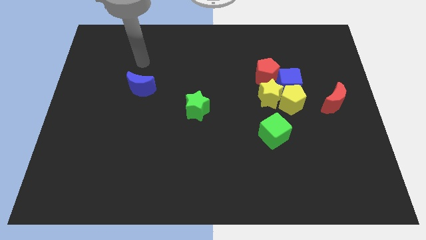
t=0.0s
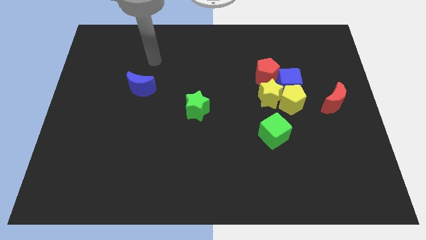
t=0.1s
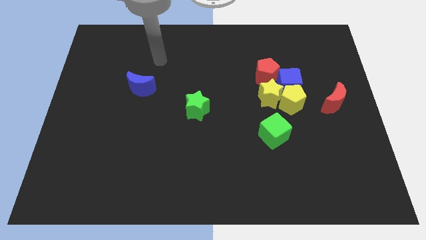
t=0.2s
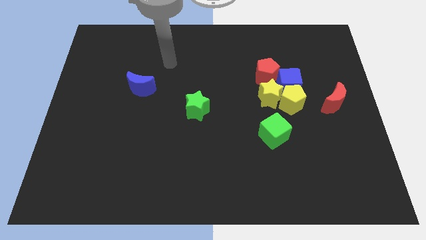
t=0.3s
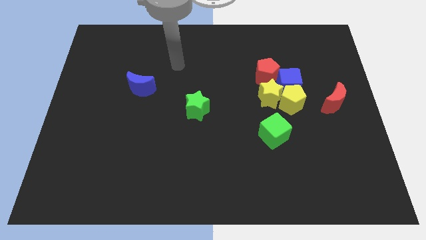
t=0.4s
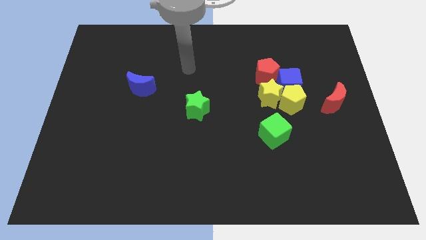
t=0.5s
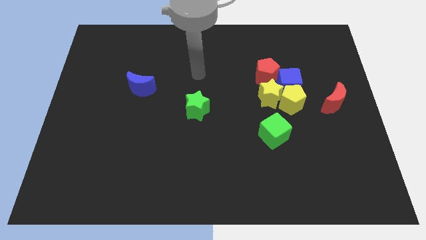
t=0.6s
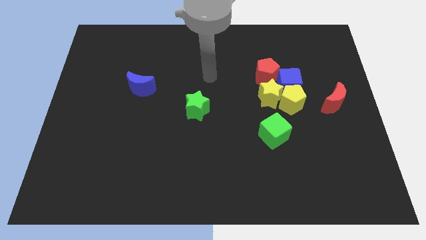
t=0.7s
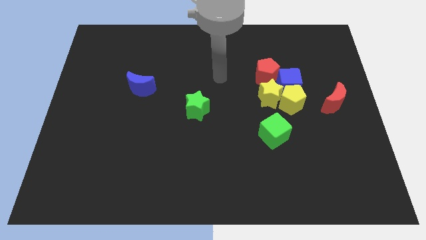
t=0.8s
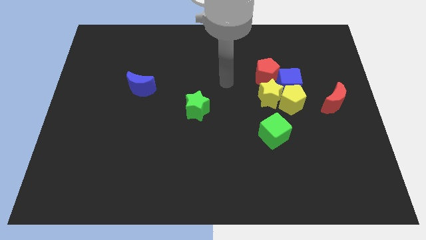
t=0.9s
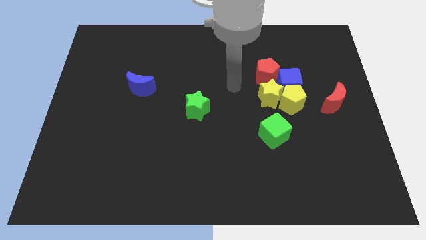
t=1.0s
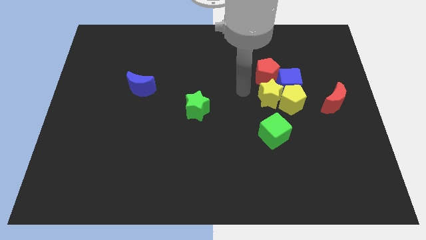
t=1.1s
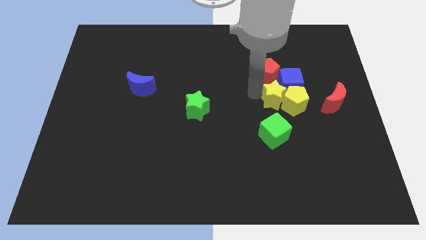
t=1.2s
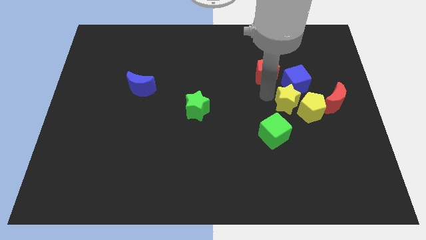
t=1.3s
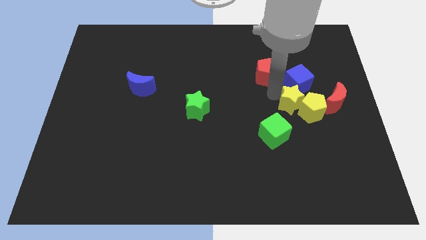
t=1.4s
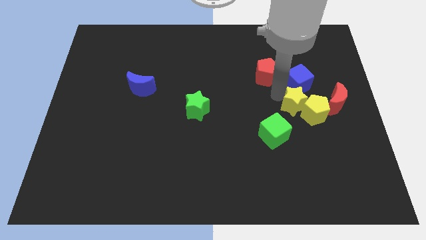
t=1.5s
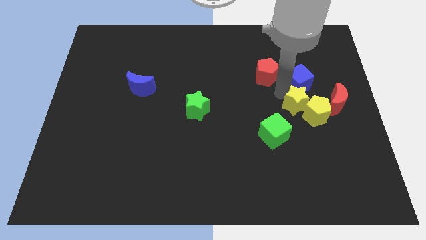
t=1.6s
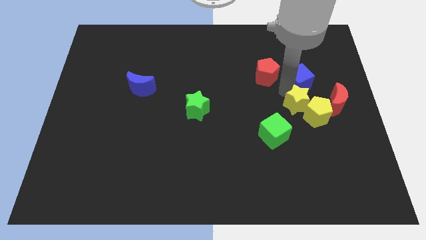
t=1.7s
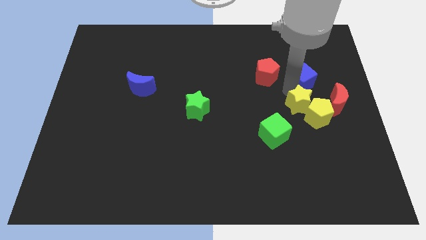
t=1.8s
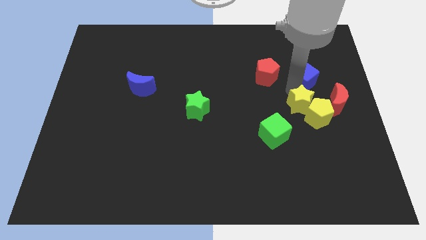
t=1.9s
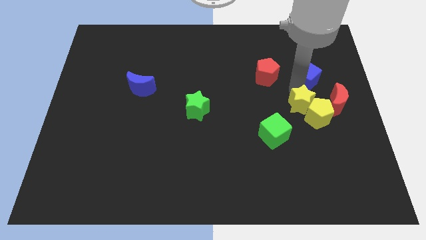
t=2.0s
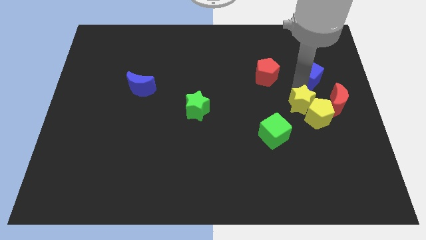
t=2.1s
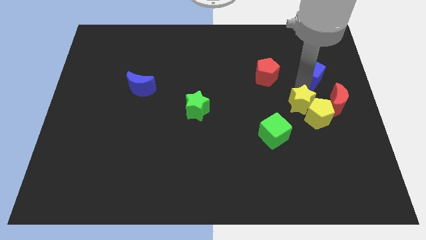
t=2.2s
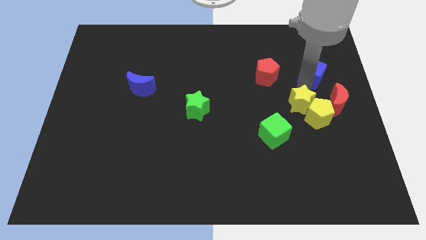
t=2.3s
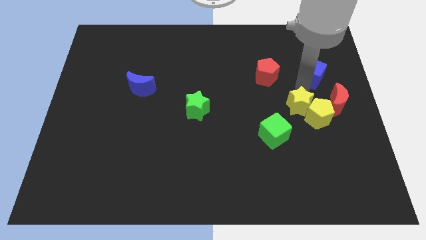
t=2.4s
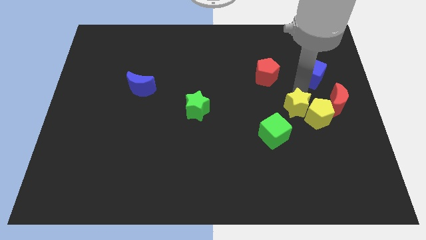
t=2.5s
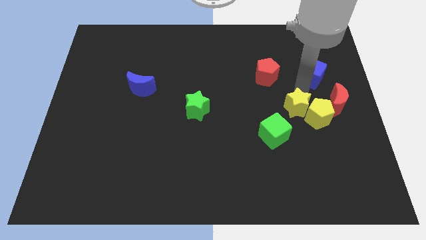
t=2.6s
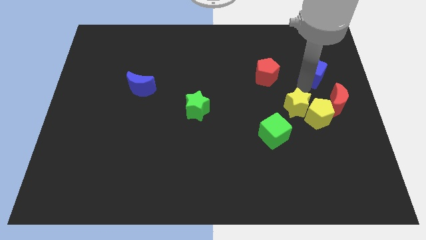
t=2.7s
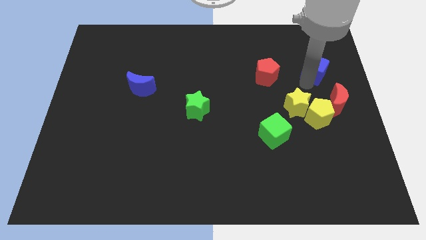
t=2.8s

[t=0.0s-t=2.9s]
pull the blue cube apart from the yellow pentagon, yellow star, and red pentagon

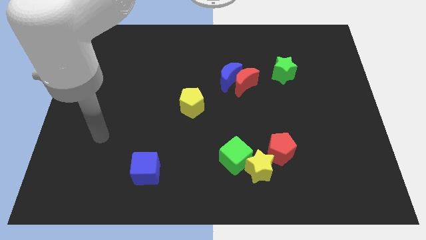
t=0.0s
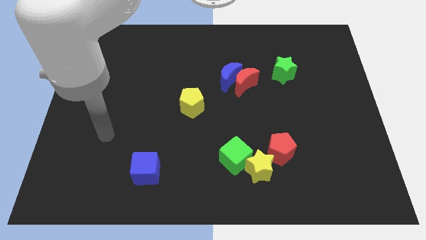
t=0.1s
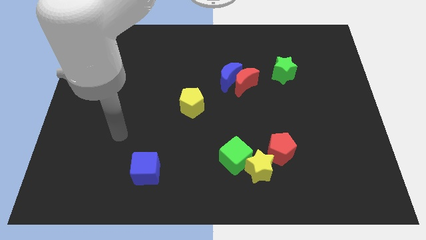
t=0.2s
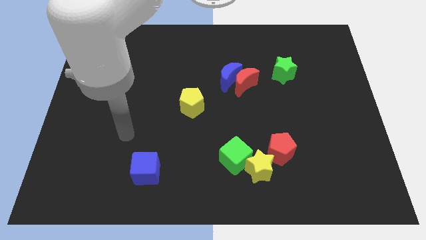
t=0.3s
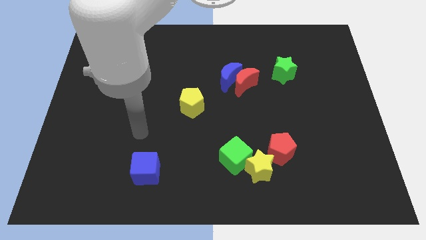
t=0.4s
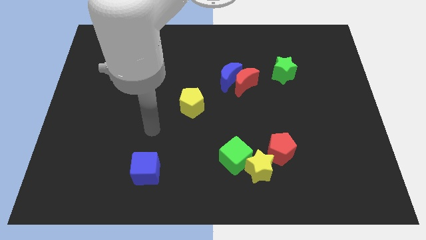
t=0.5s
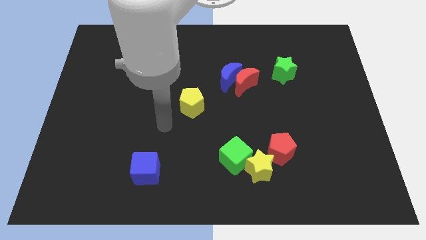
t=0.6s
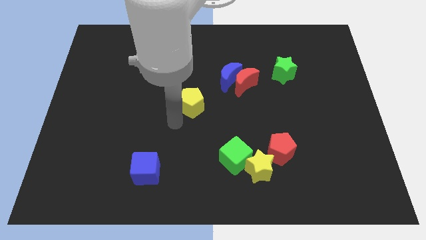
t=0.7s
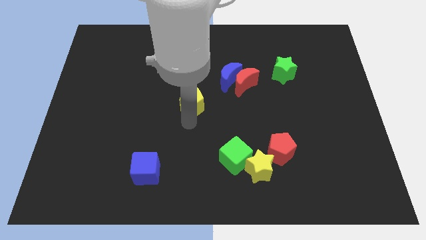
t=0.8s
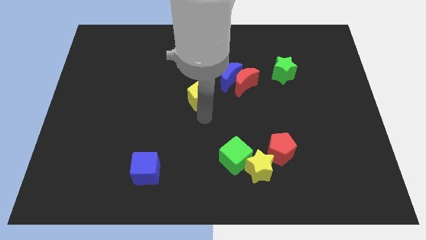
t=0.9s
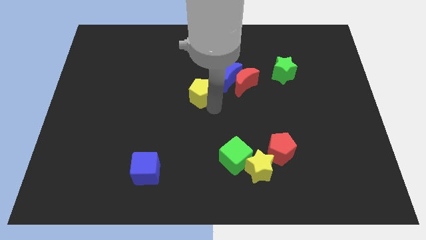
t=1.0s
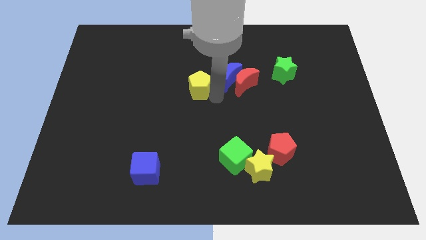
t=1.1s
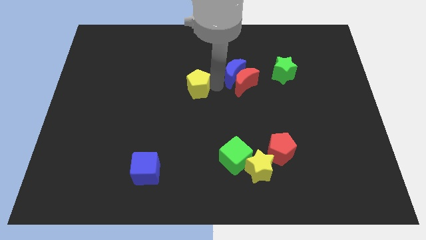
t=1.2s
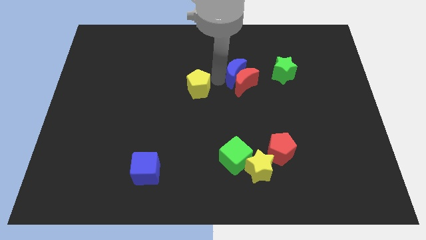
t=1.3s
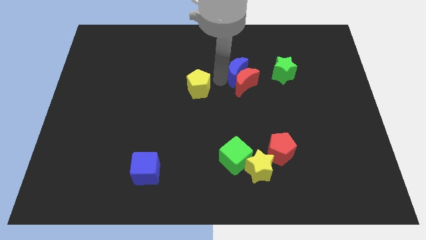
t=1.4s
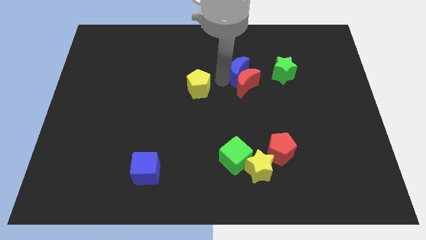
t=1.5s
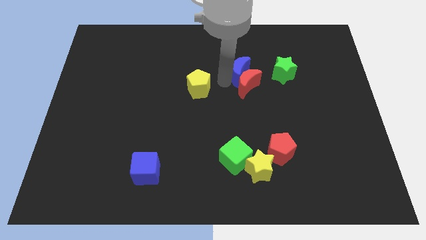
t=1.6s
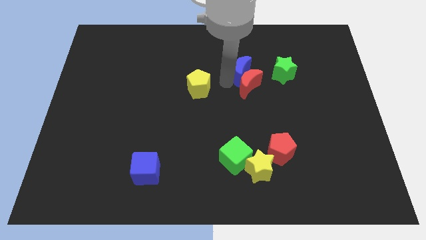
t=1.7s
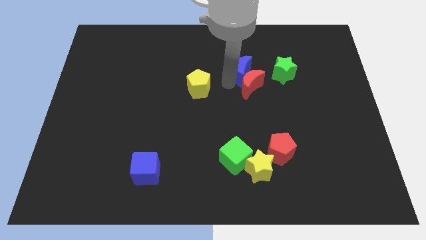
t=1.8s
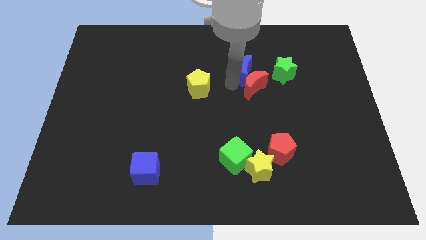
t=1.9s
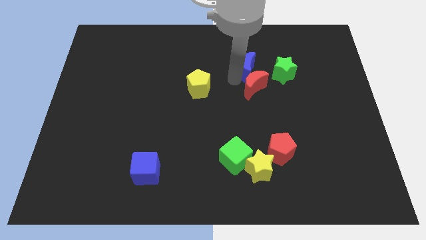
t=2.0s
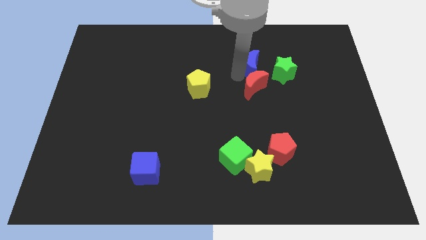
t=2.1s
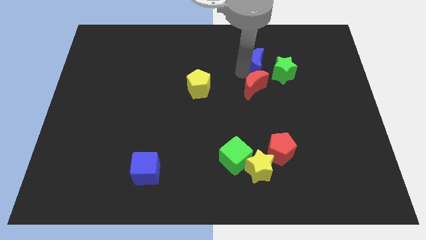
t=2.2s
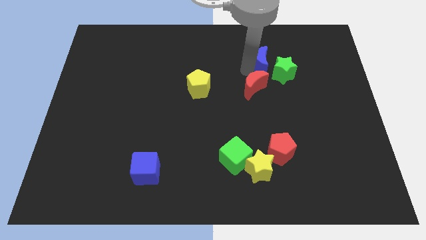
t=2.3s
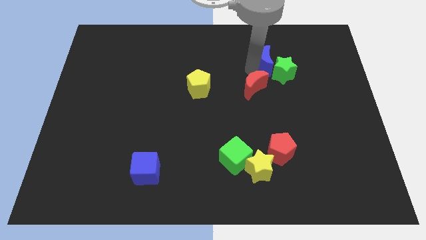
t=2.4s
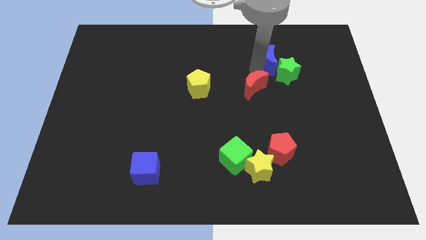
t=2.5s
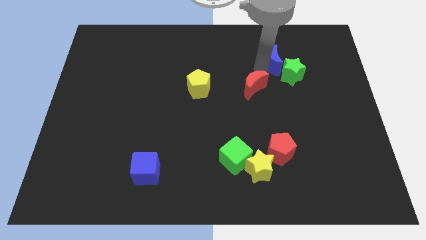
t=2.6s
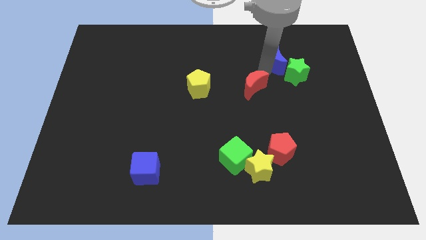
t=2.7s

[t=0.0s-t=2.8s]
move the red moon away from the blue moon

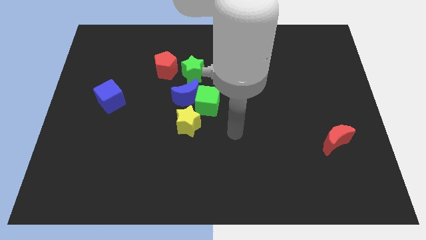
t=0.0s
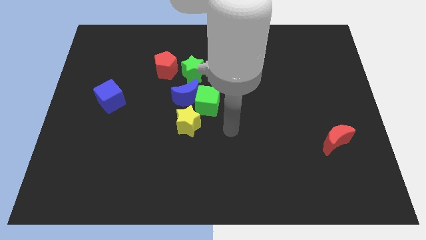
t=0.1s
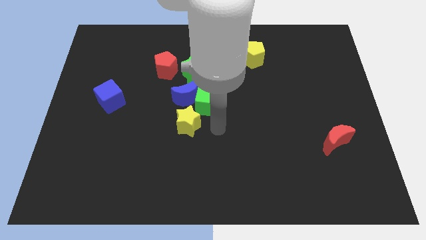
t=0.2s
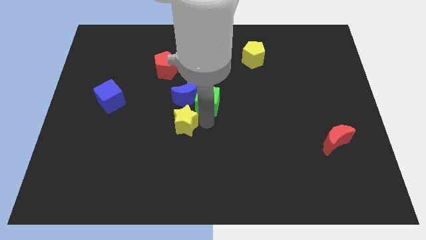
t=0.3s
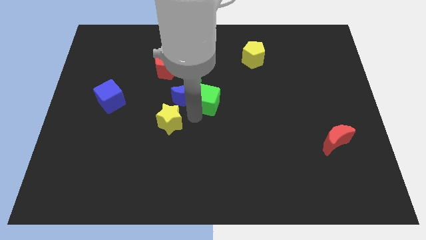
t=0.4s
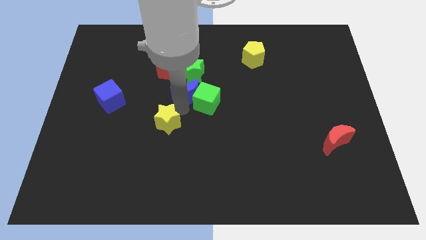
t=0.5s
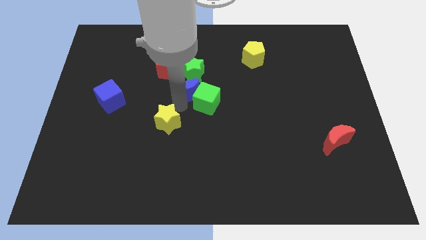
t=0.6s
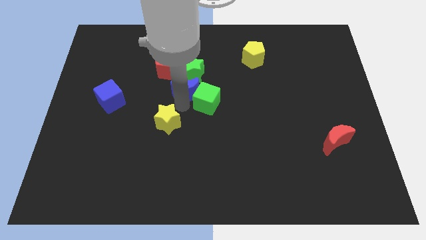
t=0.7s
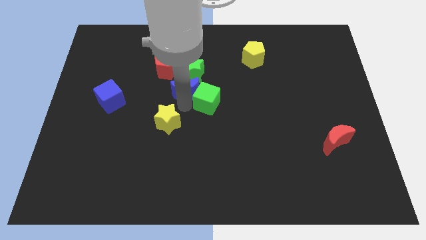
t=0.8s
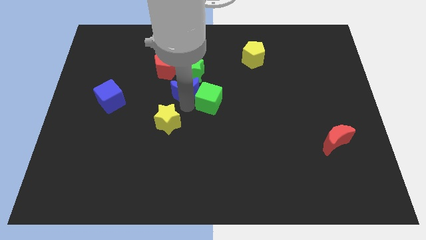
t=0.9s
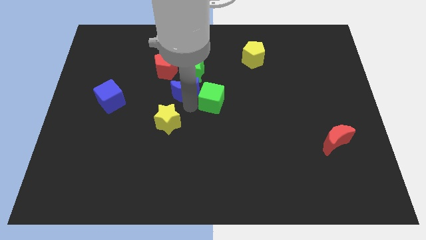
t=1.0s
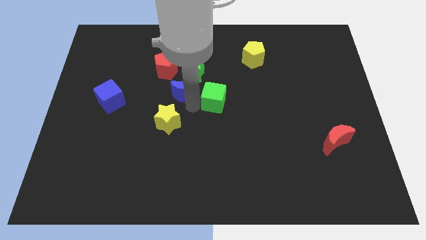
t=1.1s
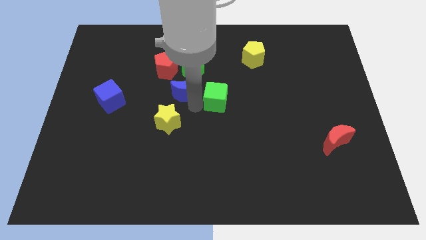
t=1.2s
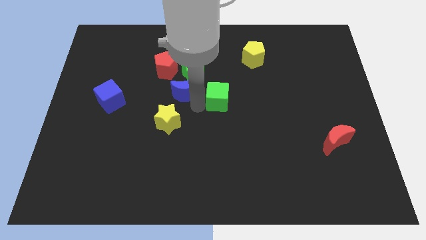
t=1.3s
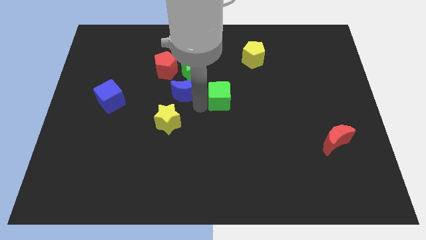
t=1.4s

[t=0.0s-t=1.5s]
move the green cube away from the blue moon and yellow star

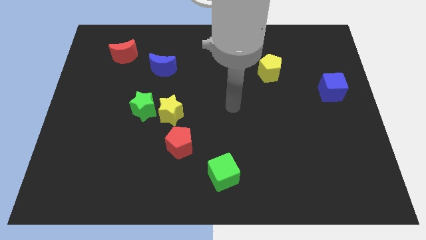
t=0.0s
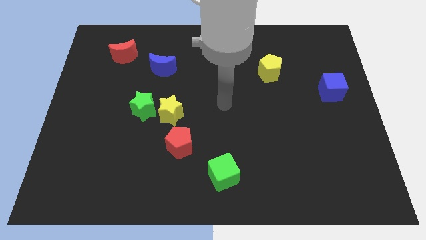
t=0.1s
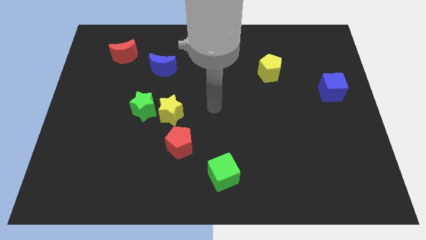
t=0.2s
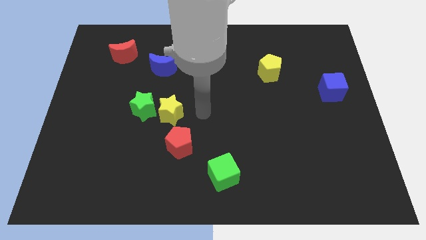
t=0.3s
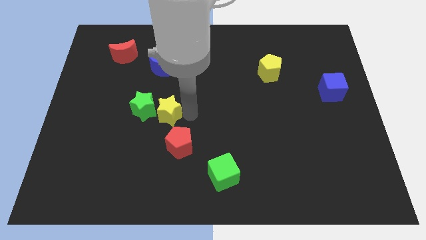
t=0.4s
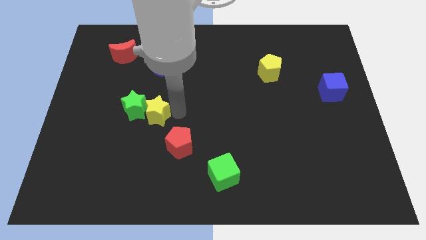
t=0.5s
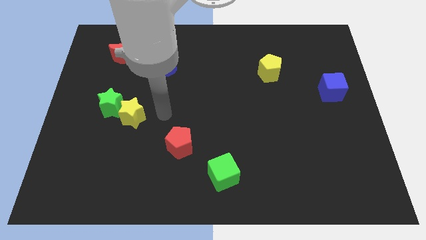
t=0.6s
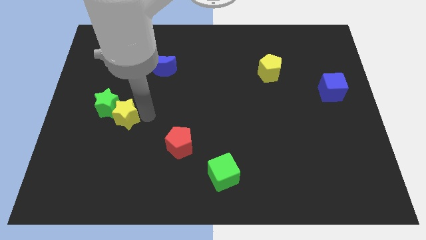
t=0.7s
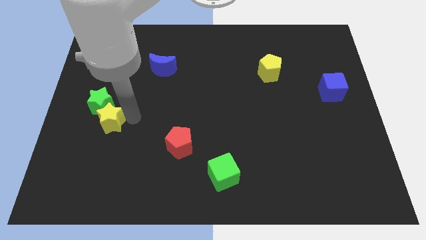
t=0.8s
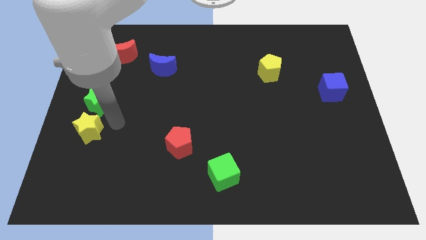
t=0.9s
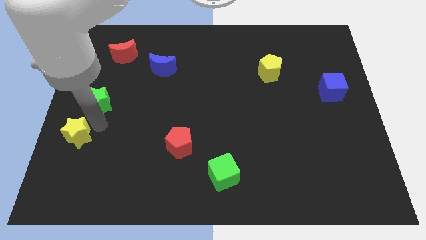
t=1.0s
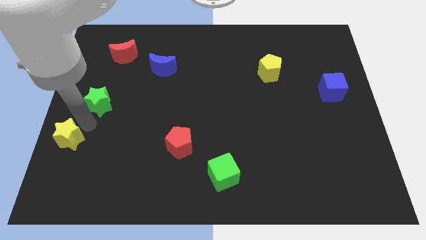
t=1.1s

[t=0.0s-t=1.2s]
move the green star away from the yellow star

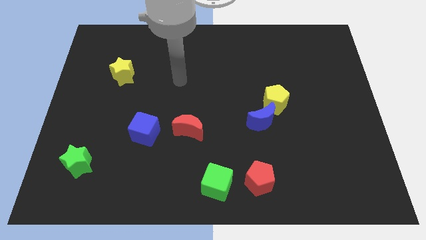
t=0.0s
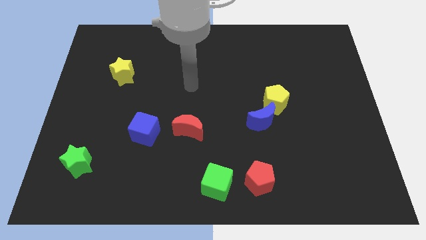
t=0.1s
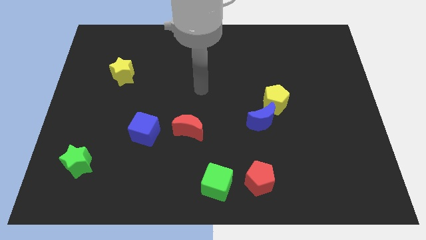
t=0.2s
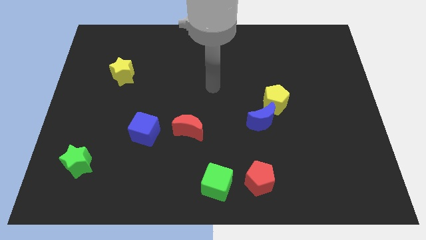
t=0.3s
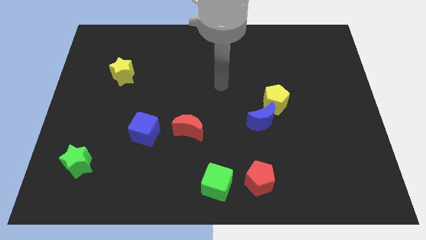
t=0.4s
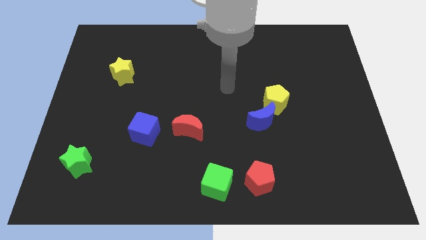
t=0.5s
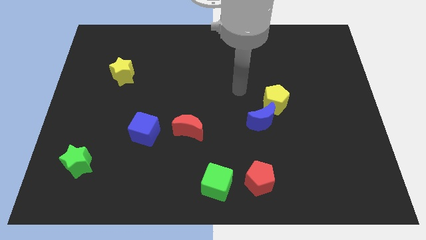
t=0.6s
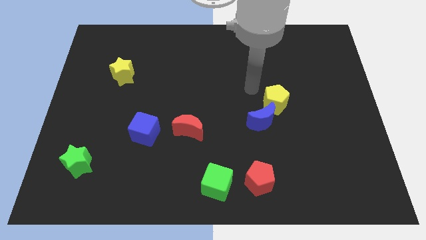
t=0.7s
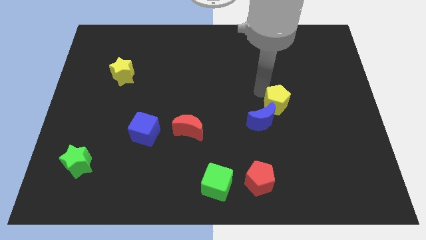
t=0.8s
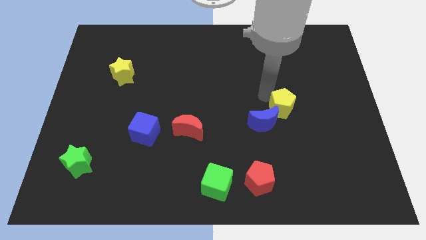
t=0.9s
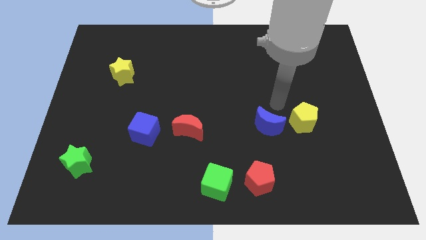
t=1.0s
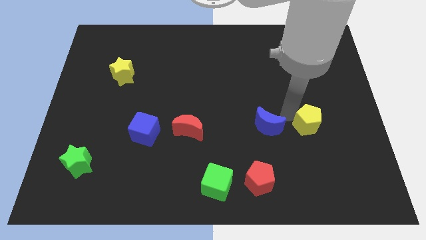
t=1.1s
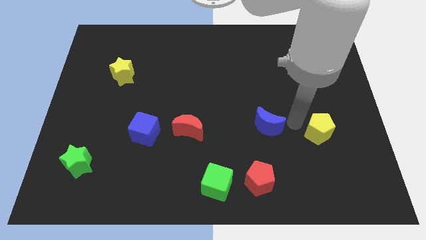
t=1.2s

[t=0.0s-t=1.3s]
separate the blue moon from the yellow pentagon
